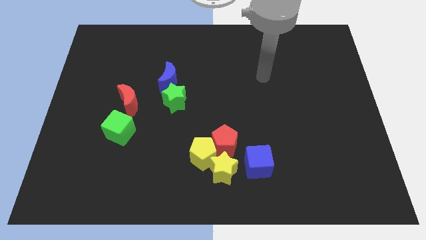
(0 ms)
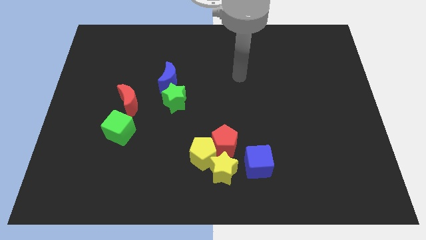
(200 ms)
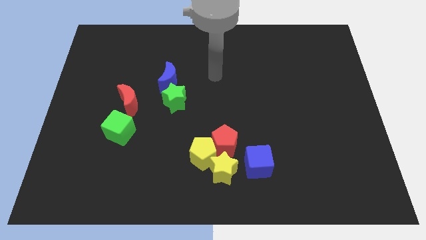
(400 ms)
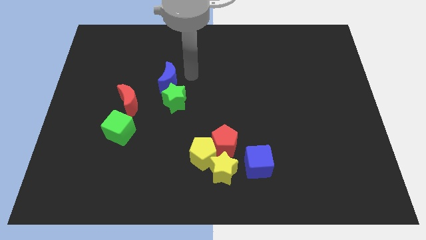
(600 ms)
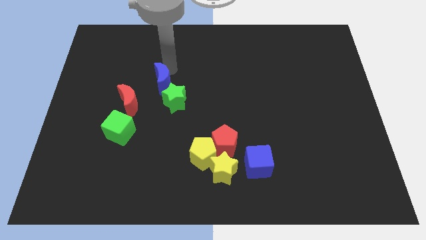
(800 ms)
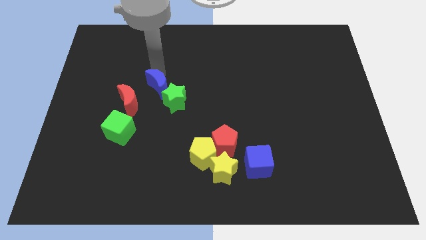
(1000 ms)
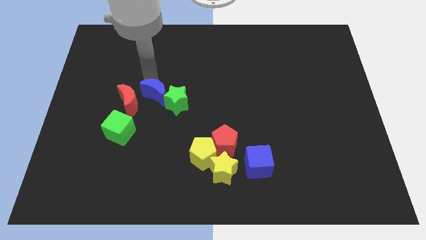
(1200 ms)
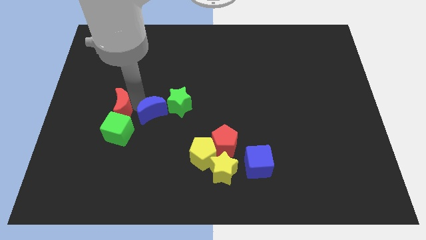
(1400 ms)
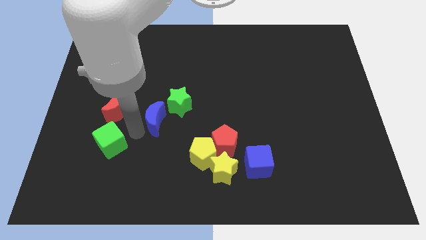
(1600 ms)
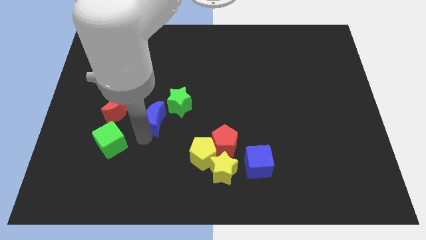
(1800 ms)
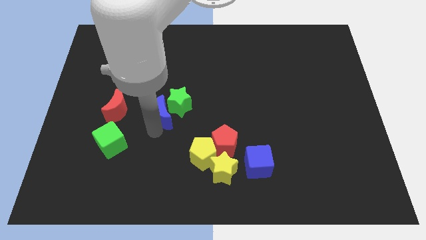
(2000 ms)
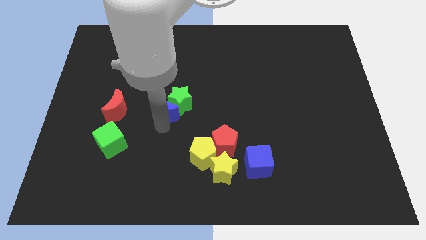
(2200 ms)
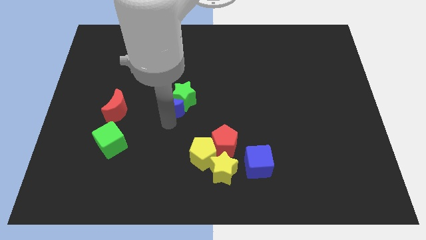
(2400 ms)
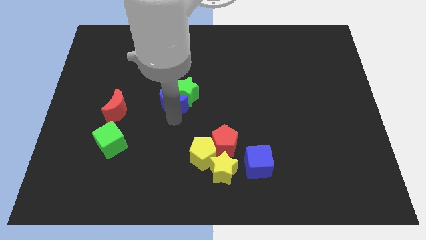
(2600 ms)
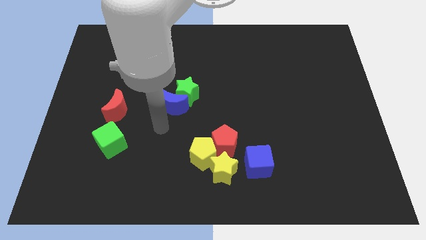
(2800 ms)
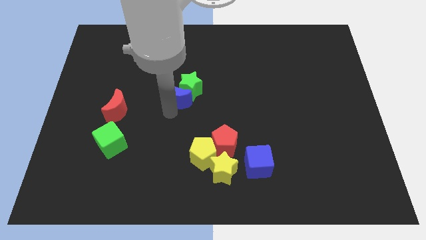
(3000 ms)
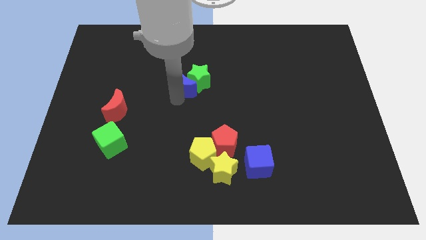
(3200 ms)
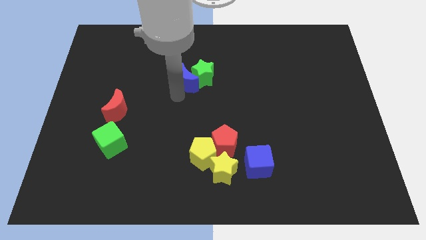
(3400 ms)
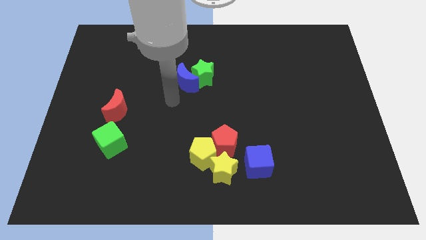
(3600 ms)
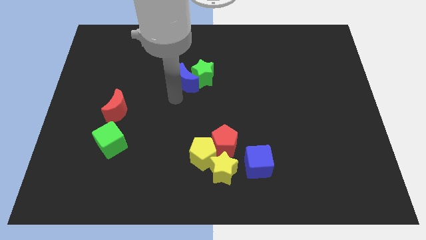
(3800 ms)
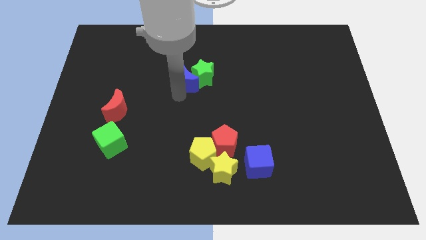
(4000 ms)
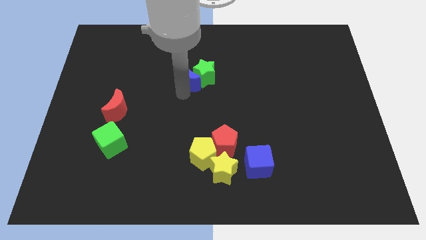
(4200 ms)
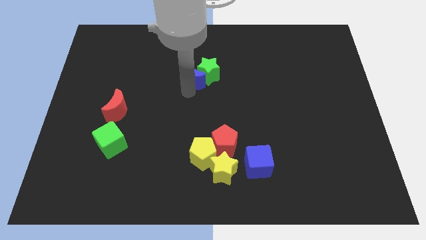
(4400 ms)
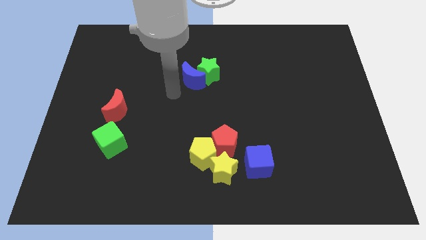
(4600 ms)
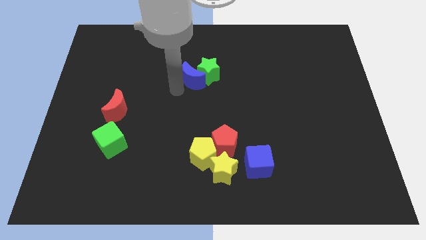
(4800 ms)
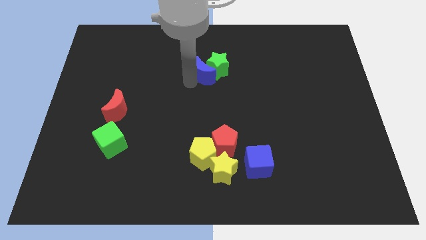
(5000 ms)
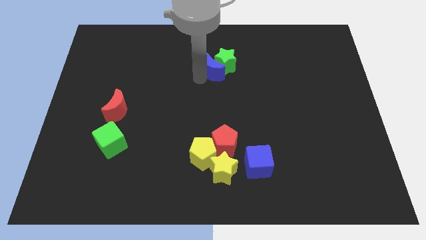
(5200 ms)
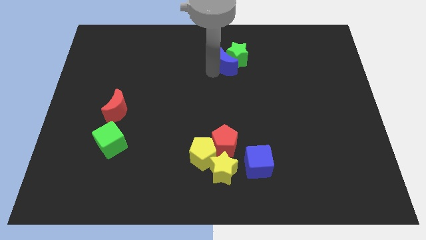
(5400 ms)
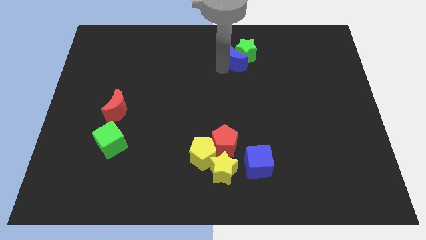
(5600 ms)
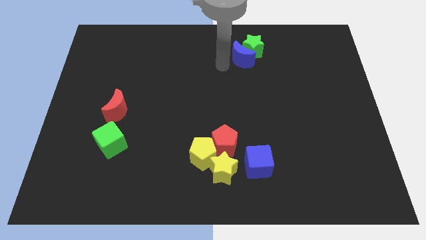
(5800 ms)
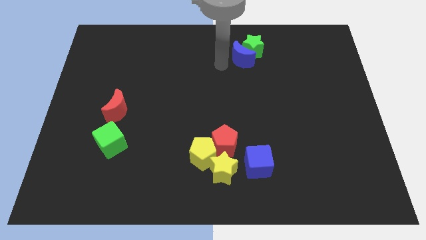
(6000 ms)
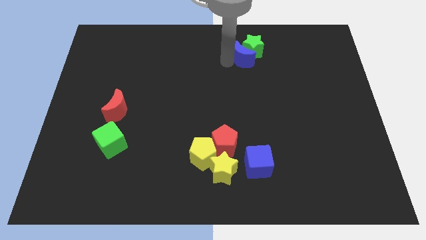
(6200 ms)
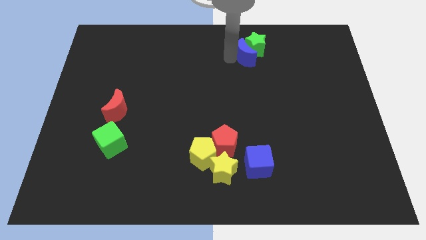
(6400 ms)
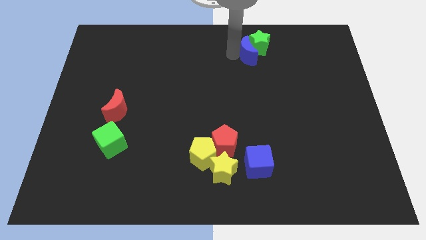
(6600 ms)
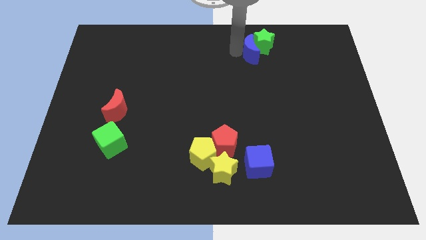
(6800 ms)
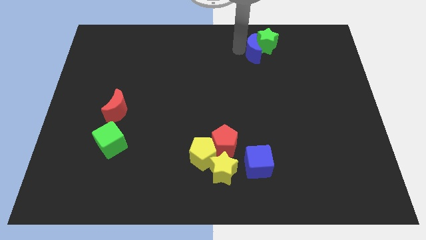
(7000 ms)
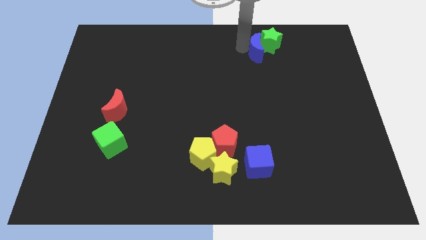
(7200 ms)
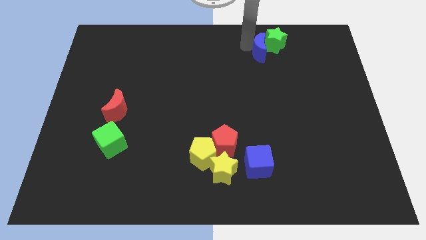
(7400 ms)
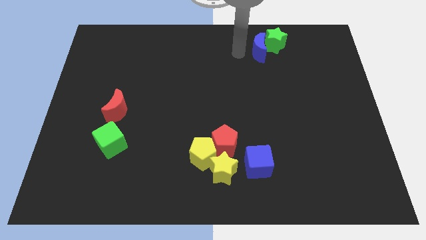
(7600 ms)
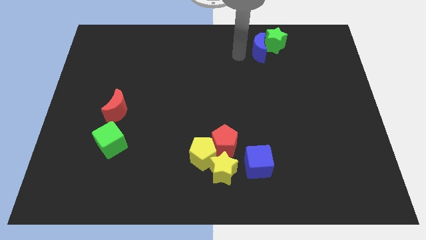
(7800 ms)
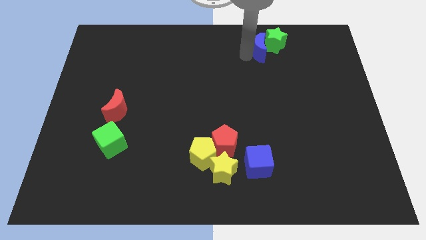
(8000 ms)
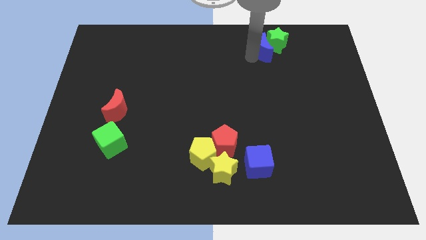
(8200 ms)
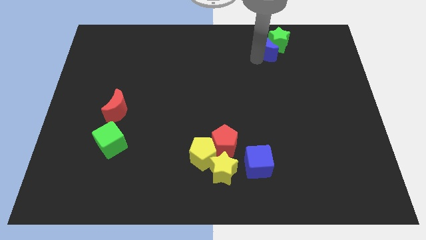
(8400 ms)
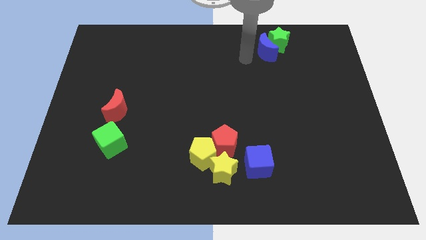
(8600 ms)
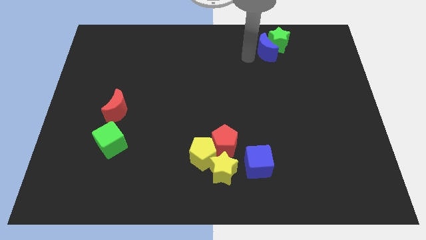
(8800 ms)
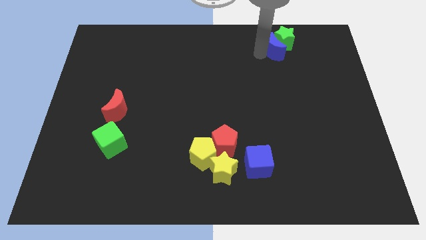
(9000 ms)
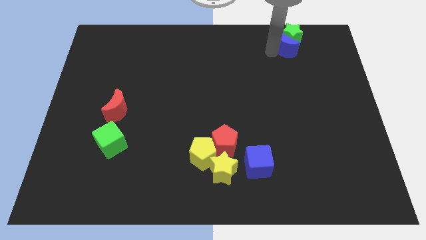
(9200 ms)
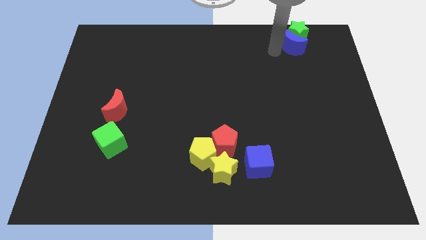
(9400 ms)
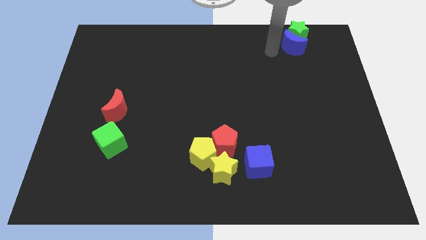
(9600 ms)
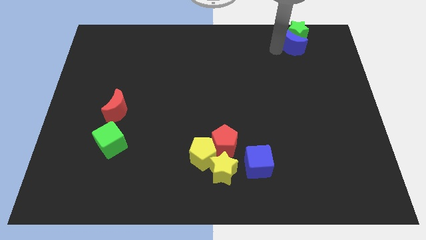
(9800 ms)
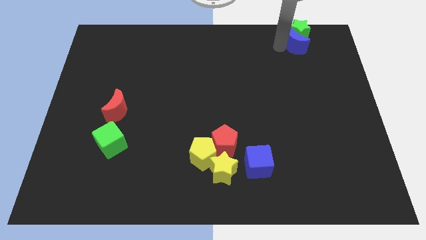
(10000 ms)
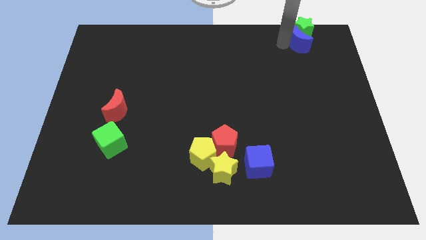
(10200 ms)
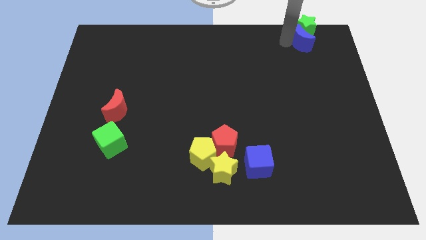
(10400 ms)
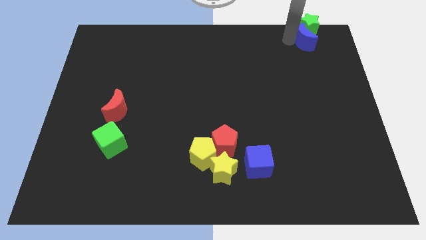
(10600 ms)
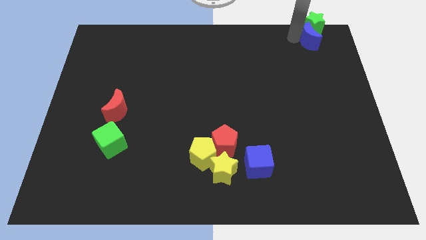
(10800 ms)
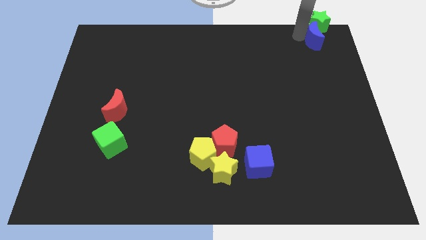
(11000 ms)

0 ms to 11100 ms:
move the blue moon to the top right corner

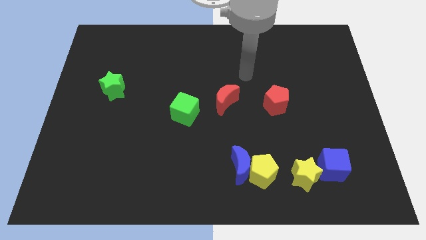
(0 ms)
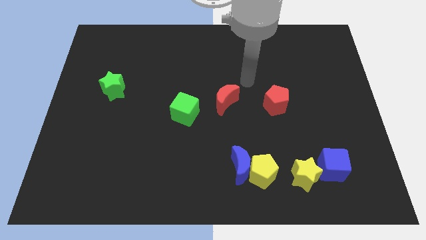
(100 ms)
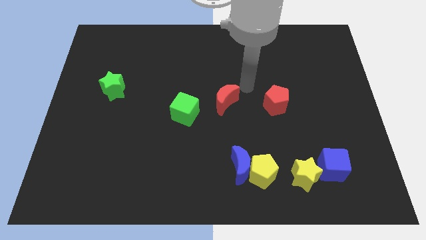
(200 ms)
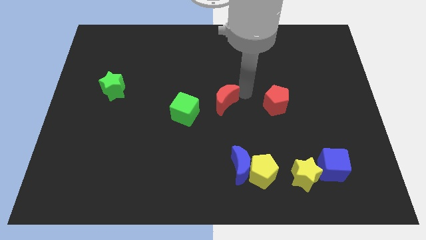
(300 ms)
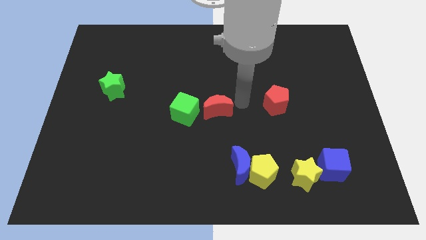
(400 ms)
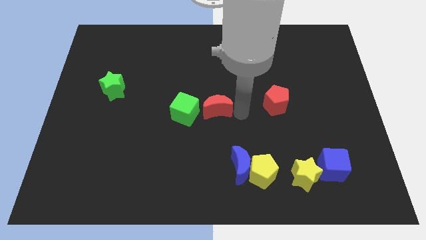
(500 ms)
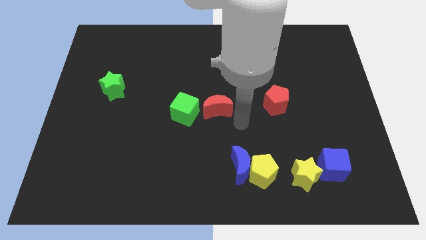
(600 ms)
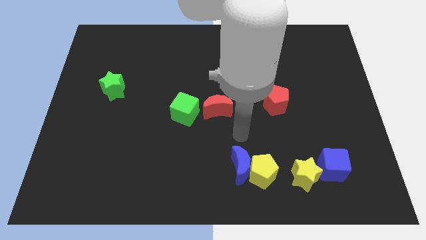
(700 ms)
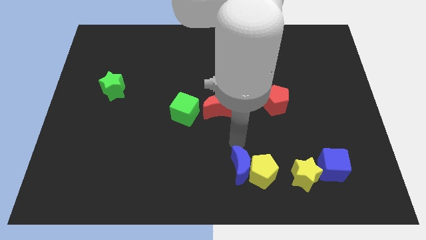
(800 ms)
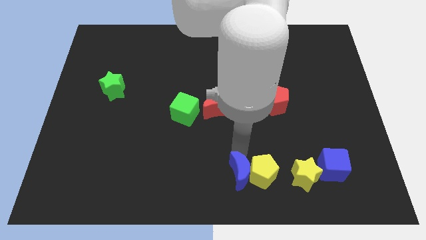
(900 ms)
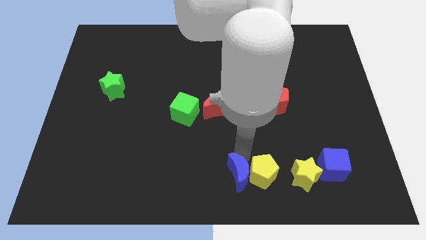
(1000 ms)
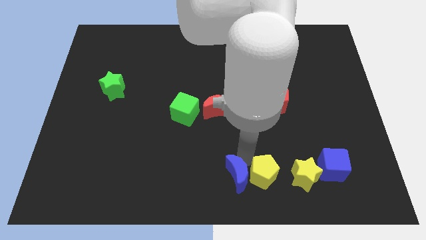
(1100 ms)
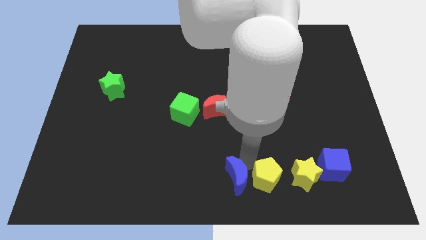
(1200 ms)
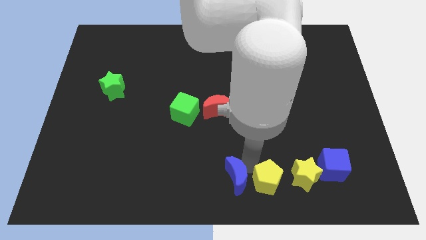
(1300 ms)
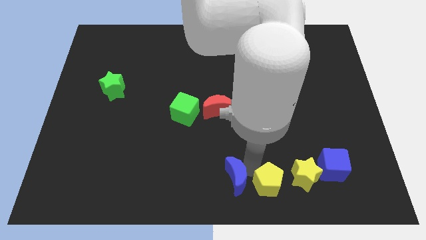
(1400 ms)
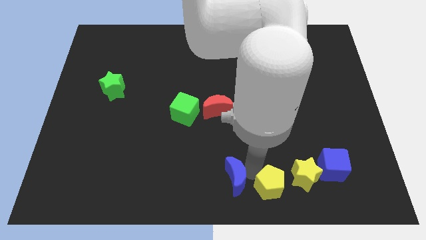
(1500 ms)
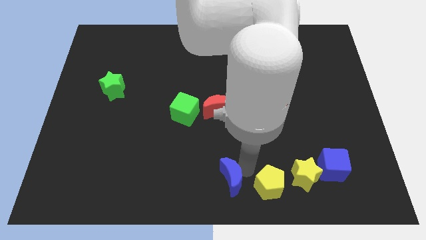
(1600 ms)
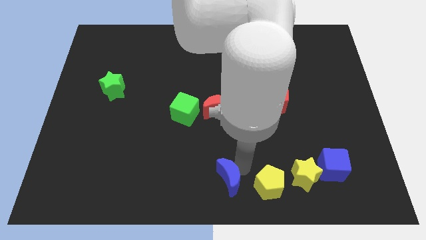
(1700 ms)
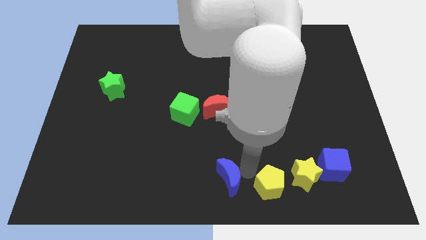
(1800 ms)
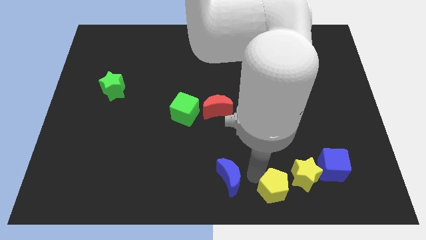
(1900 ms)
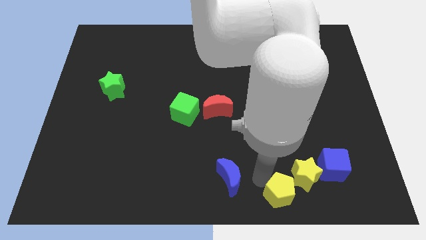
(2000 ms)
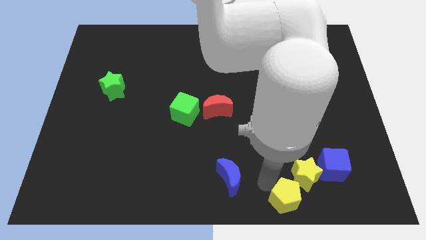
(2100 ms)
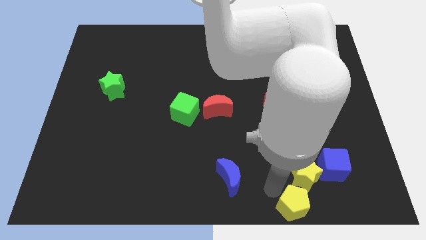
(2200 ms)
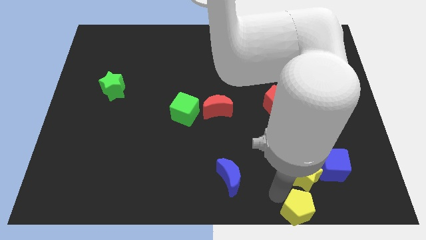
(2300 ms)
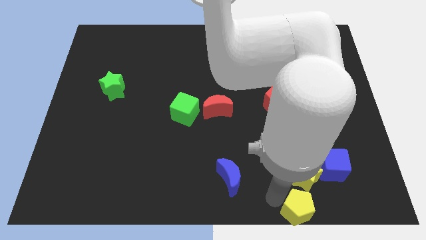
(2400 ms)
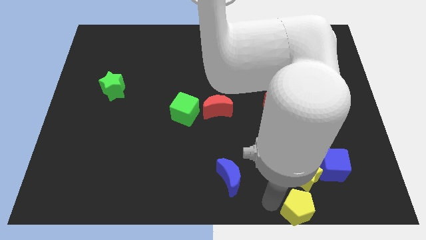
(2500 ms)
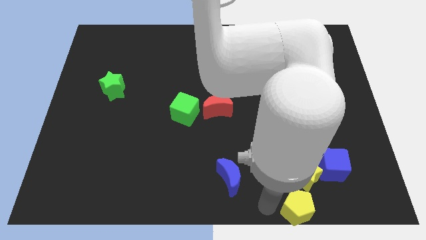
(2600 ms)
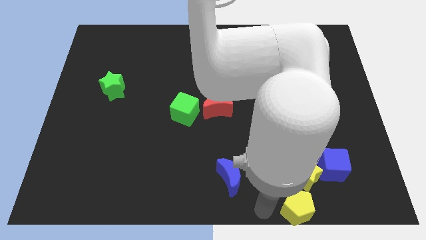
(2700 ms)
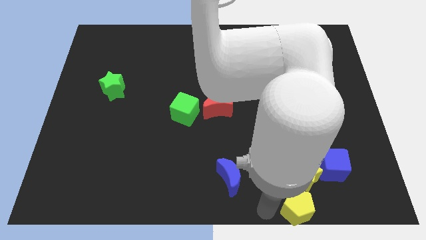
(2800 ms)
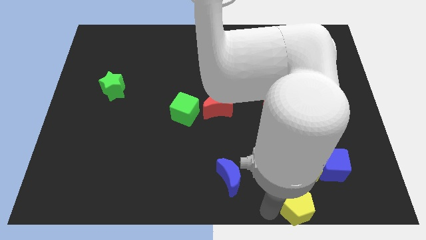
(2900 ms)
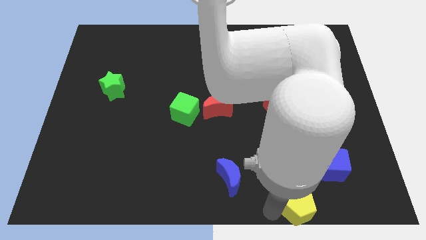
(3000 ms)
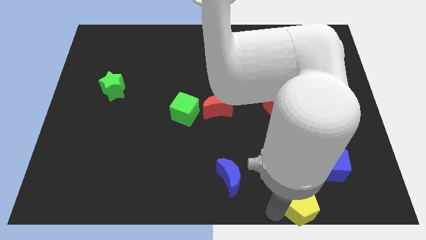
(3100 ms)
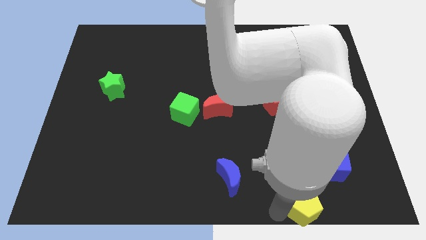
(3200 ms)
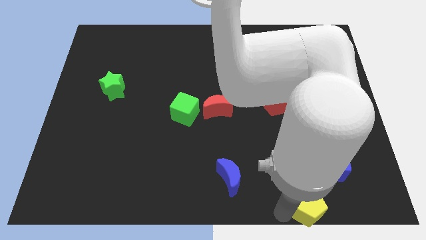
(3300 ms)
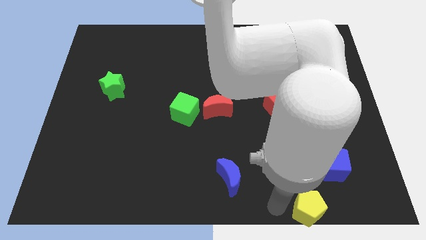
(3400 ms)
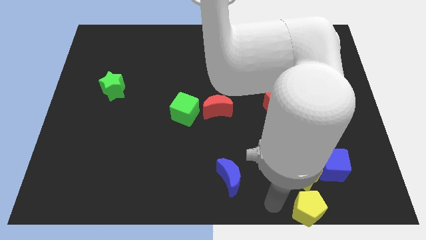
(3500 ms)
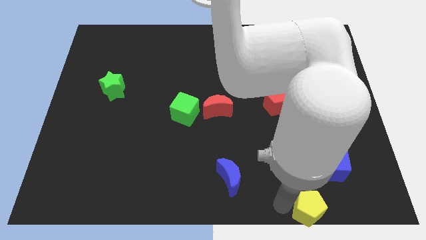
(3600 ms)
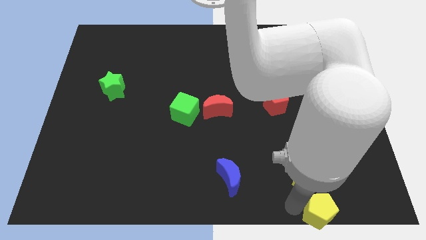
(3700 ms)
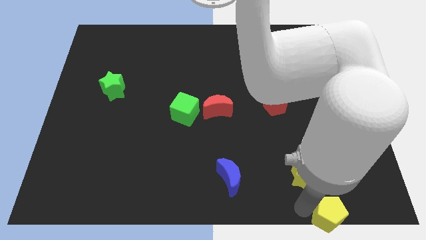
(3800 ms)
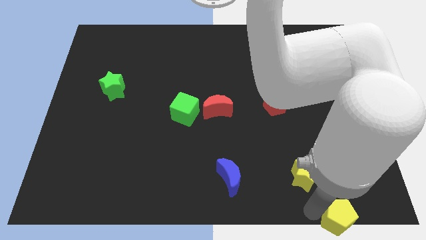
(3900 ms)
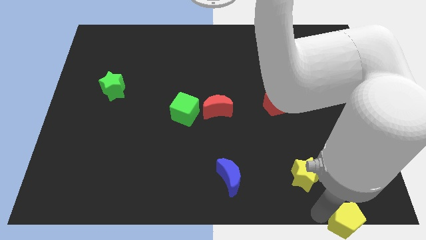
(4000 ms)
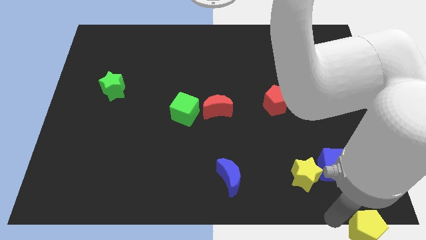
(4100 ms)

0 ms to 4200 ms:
move the yellow pentagon to the bottom right of the board
